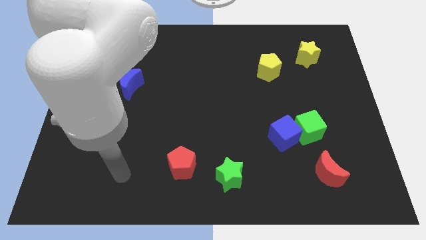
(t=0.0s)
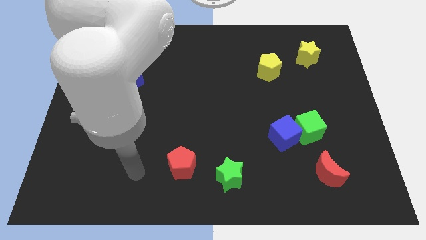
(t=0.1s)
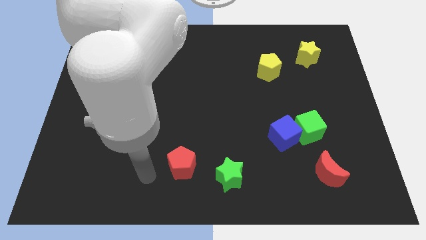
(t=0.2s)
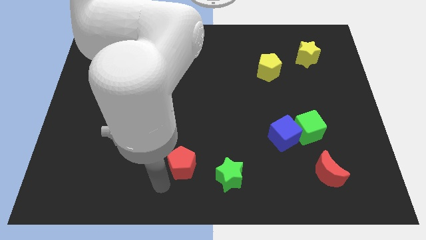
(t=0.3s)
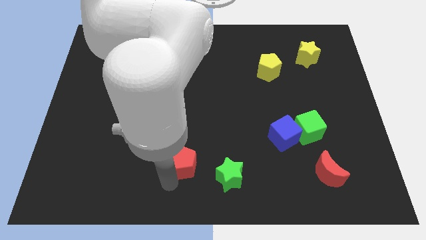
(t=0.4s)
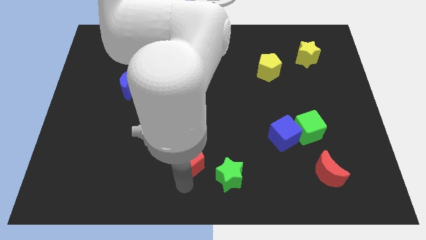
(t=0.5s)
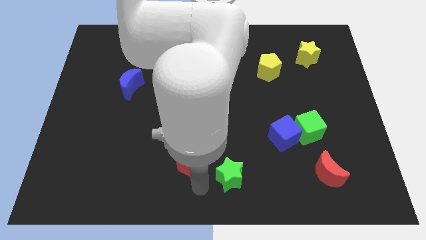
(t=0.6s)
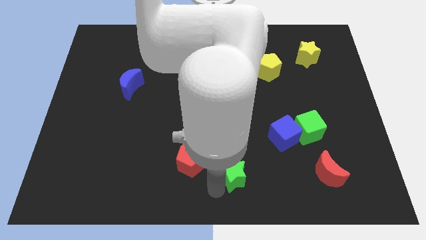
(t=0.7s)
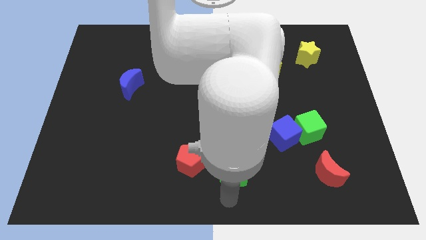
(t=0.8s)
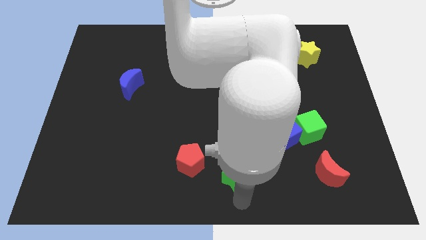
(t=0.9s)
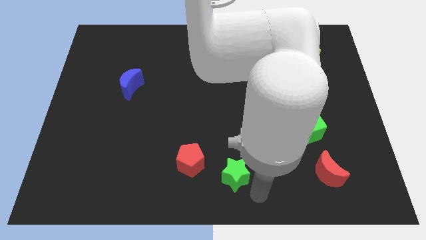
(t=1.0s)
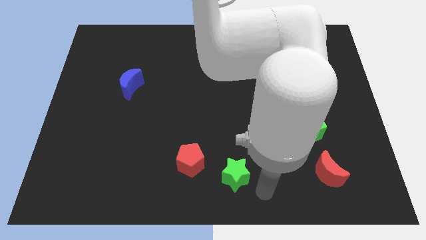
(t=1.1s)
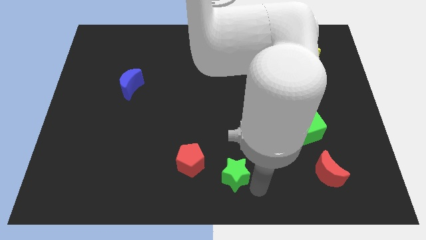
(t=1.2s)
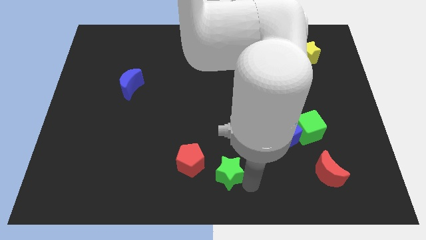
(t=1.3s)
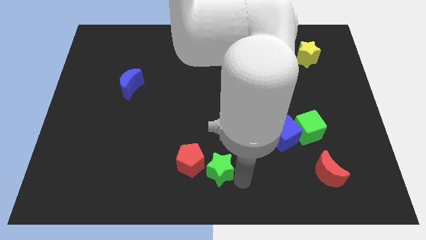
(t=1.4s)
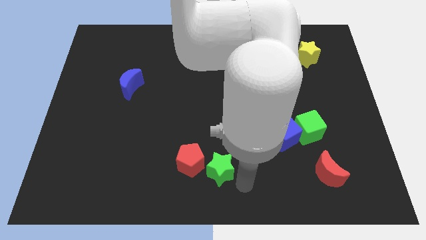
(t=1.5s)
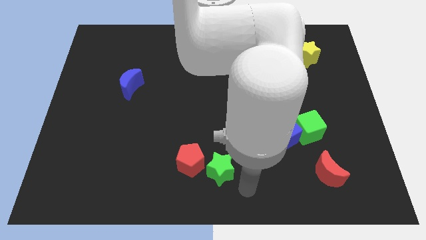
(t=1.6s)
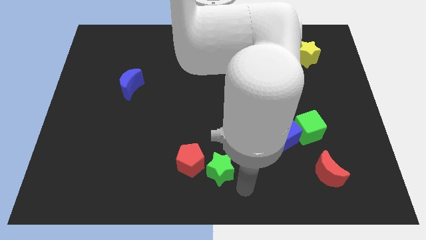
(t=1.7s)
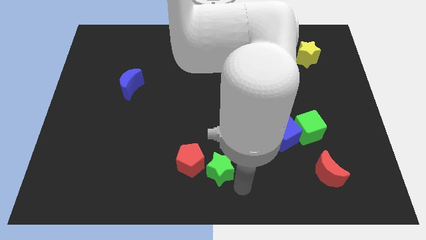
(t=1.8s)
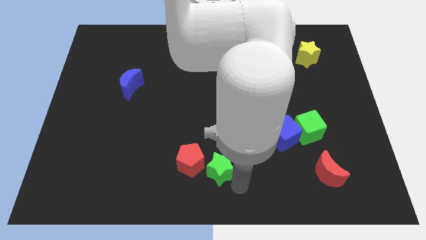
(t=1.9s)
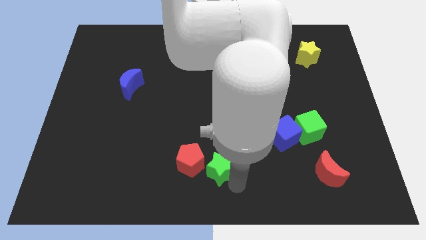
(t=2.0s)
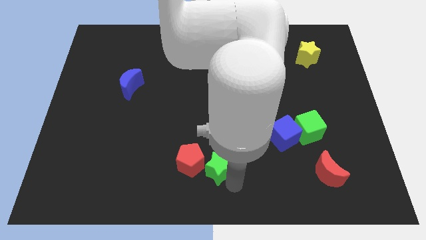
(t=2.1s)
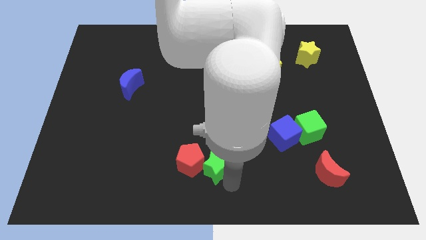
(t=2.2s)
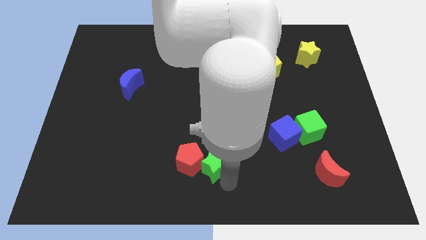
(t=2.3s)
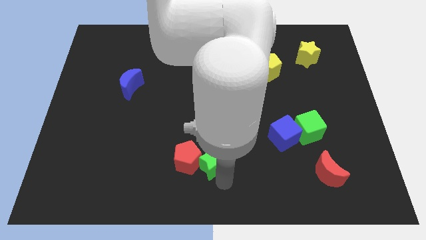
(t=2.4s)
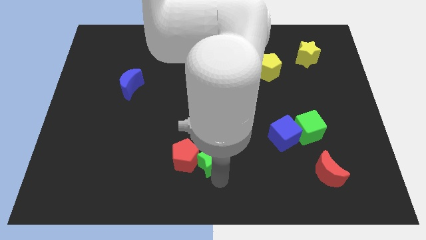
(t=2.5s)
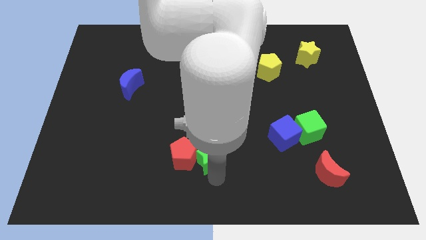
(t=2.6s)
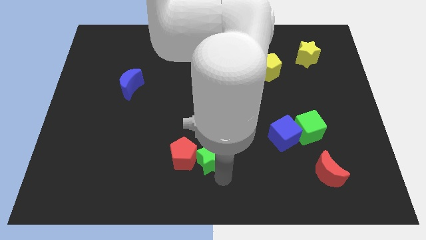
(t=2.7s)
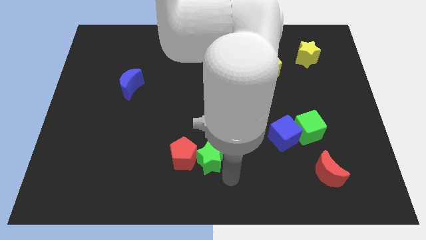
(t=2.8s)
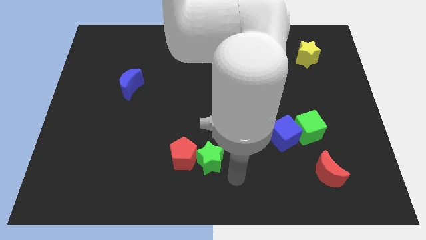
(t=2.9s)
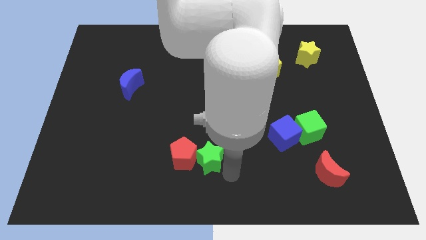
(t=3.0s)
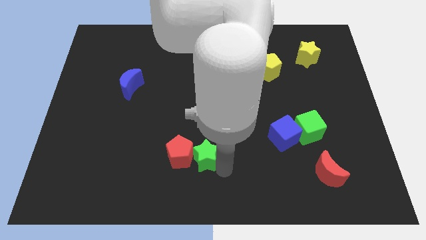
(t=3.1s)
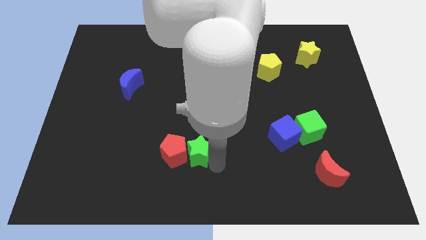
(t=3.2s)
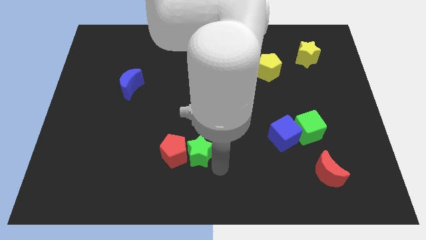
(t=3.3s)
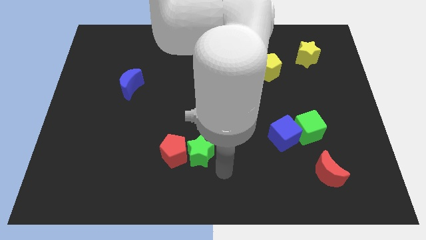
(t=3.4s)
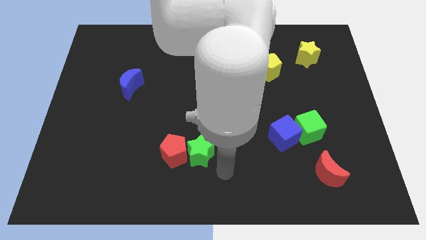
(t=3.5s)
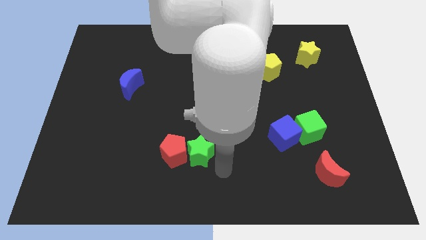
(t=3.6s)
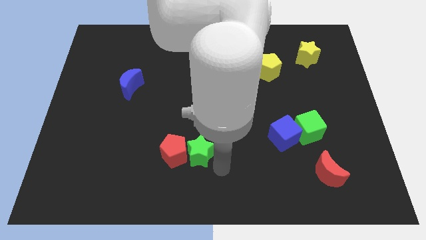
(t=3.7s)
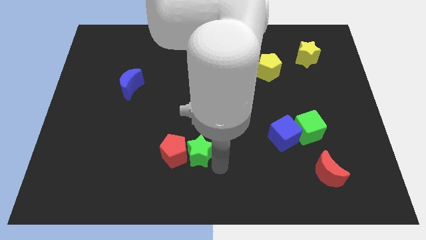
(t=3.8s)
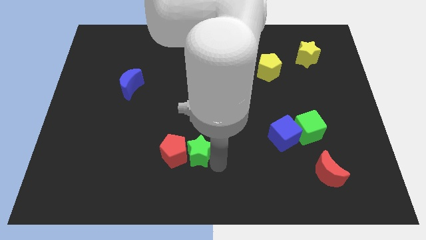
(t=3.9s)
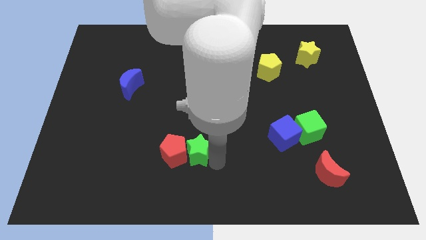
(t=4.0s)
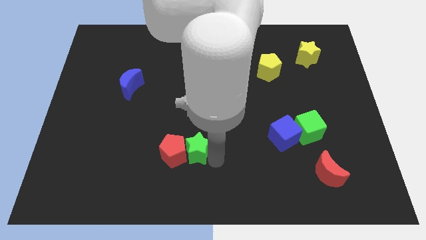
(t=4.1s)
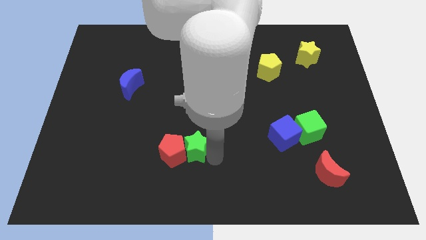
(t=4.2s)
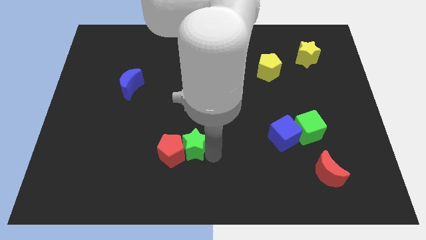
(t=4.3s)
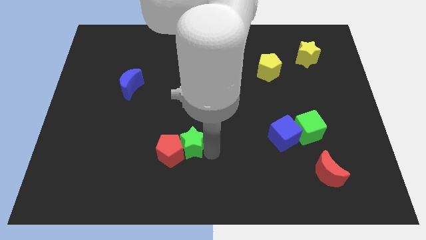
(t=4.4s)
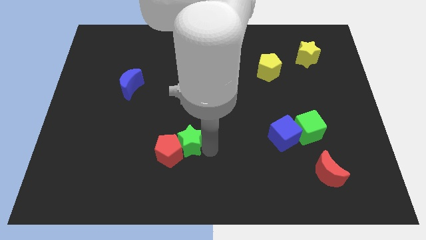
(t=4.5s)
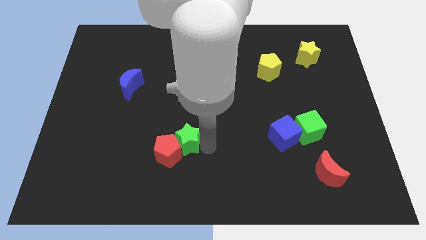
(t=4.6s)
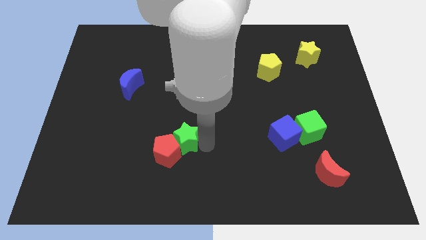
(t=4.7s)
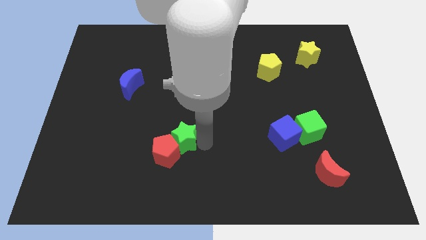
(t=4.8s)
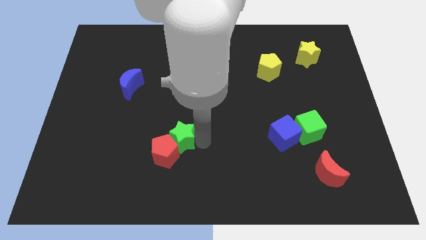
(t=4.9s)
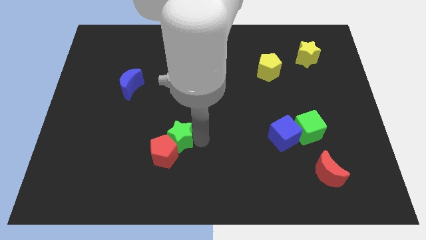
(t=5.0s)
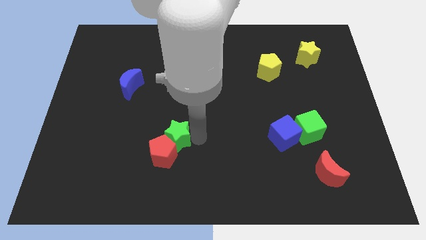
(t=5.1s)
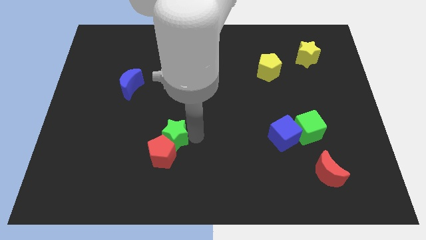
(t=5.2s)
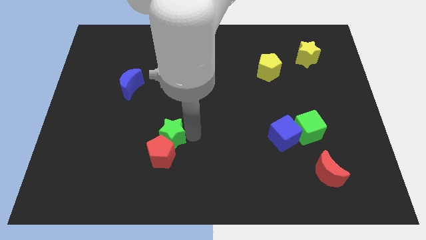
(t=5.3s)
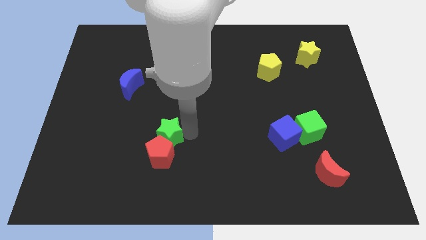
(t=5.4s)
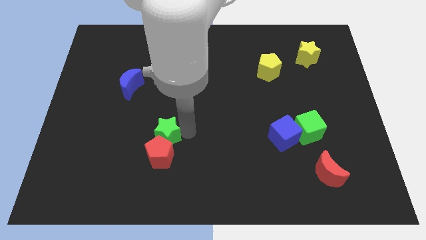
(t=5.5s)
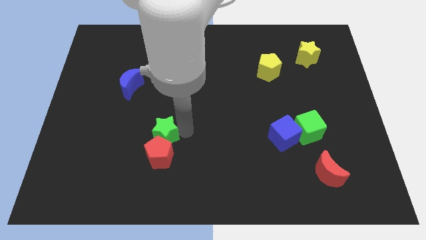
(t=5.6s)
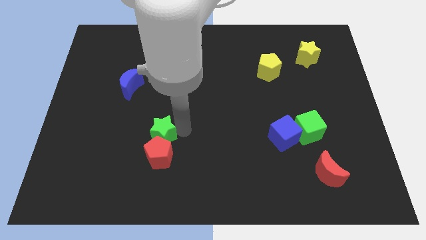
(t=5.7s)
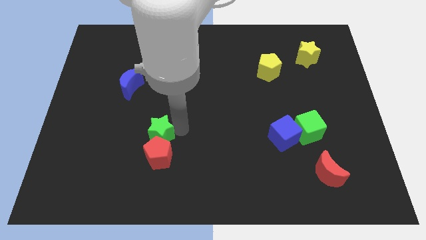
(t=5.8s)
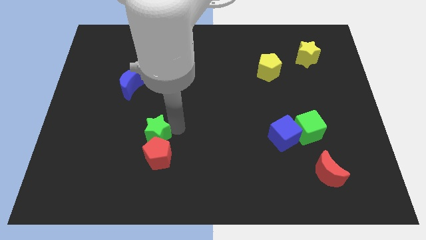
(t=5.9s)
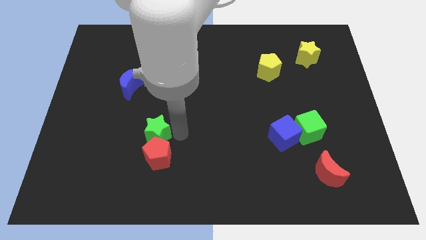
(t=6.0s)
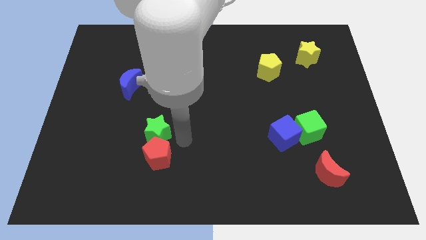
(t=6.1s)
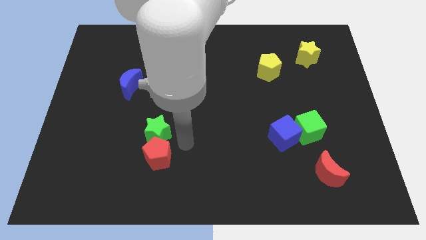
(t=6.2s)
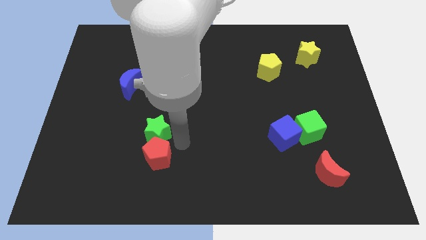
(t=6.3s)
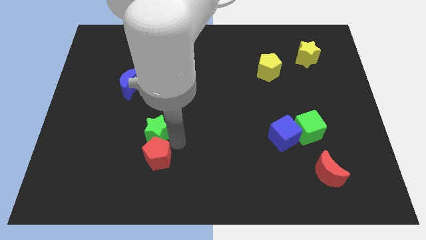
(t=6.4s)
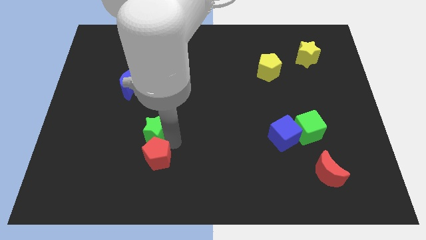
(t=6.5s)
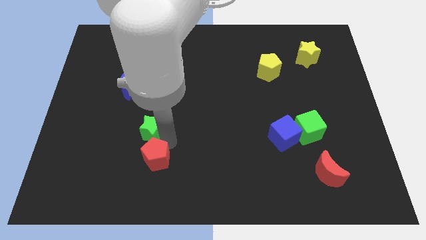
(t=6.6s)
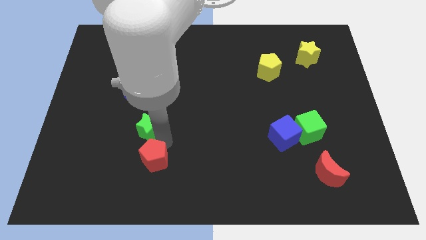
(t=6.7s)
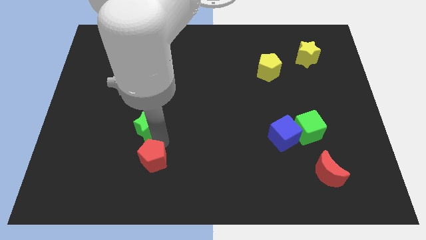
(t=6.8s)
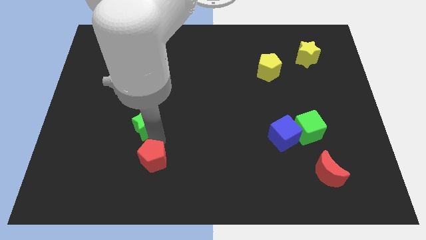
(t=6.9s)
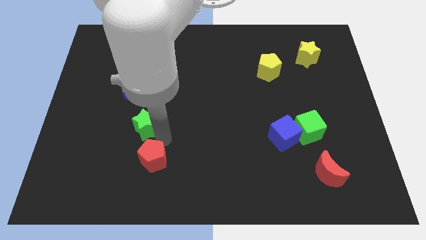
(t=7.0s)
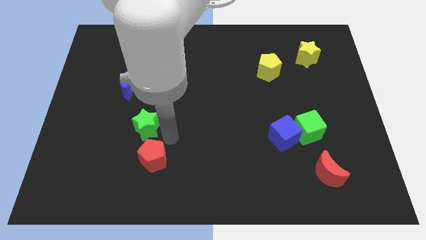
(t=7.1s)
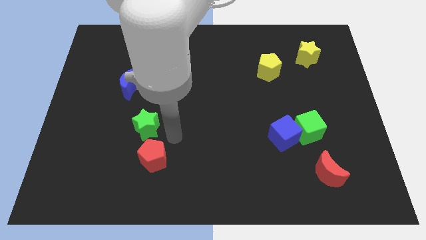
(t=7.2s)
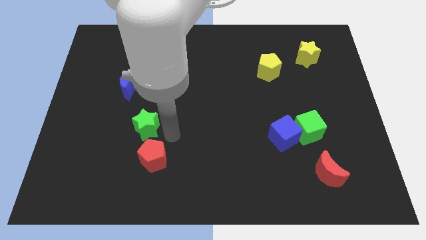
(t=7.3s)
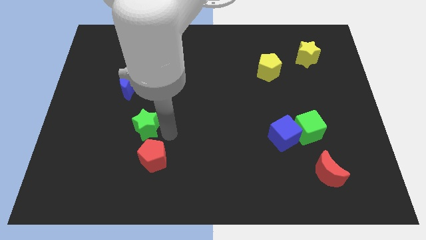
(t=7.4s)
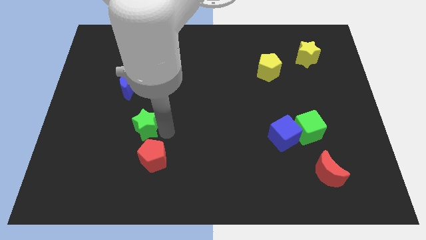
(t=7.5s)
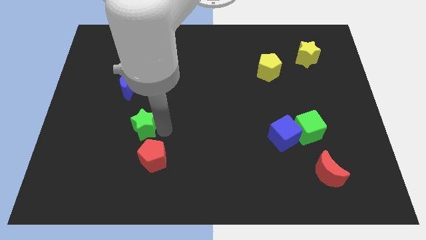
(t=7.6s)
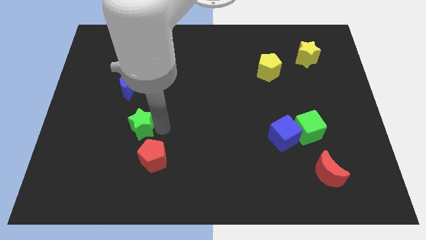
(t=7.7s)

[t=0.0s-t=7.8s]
move the green star below the blue moon
